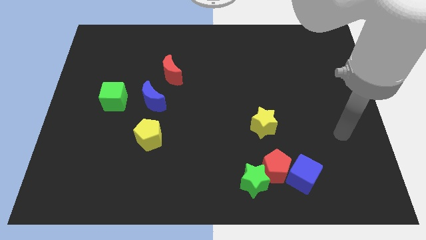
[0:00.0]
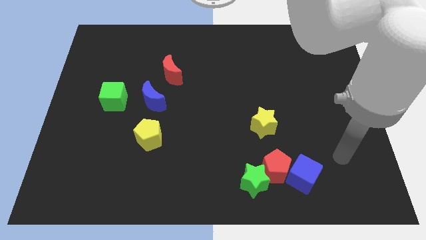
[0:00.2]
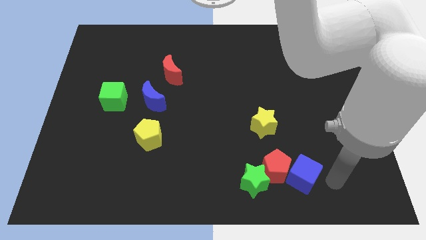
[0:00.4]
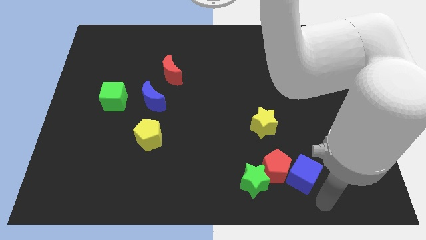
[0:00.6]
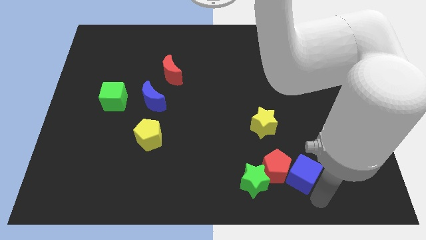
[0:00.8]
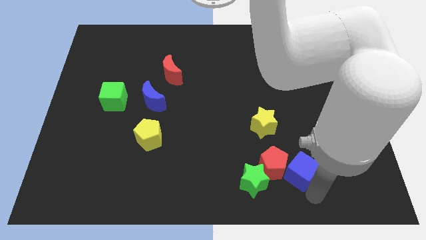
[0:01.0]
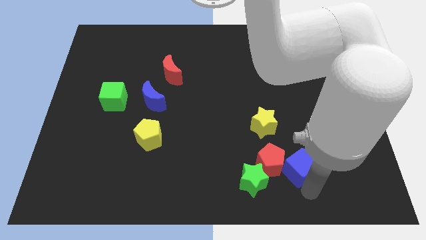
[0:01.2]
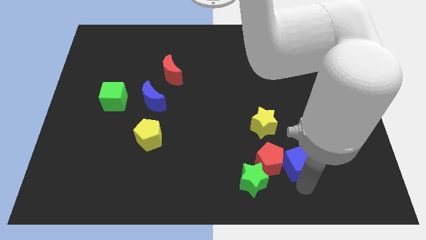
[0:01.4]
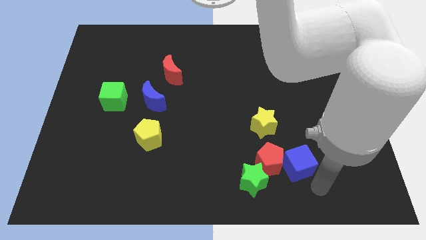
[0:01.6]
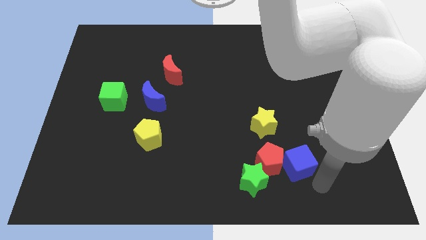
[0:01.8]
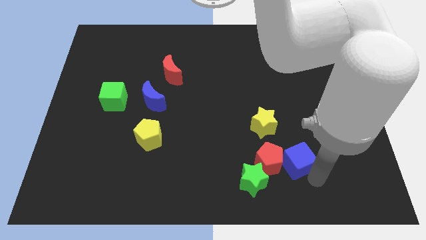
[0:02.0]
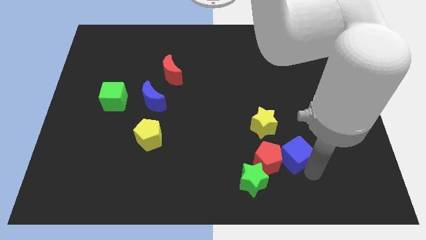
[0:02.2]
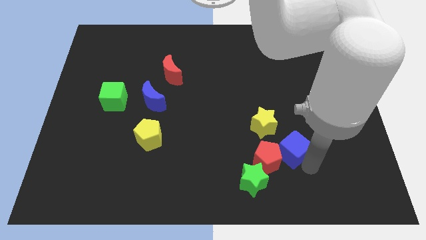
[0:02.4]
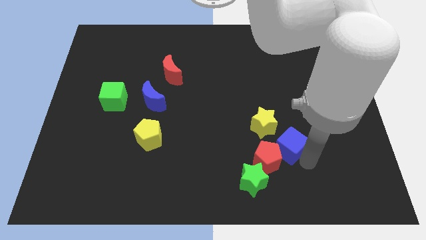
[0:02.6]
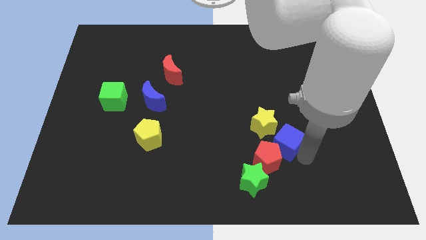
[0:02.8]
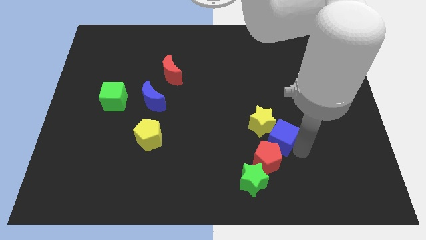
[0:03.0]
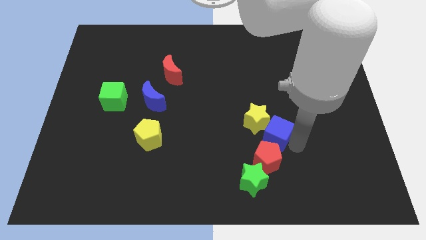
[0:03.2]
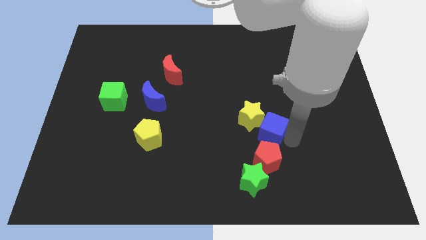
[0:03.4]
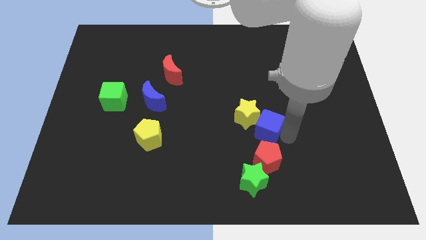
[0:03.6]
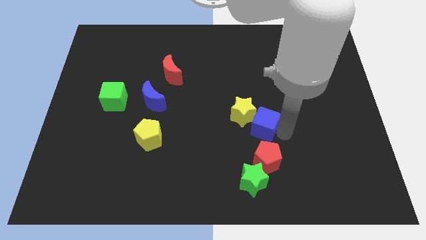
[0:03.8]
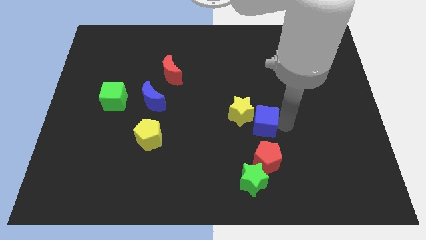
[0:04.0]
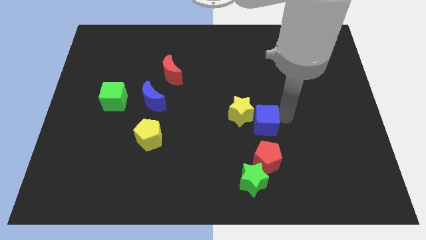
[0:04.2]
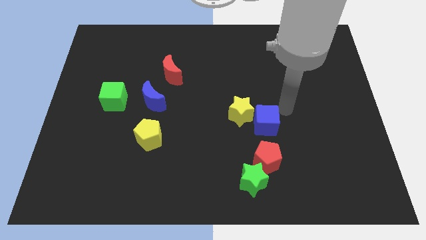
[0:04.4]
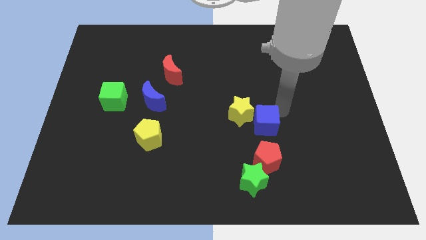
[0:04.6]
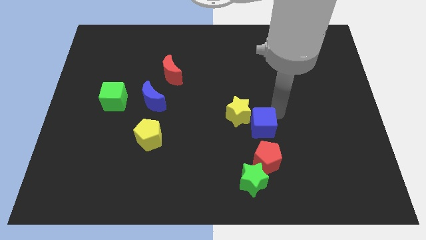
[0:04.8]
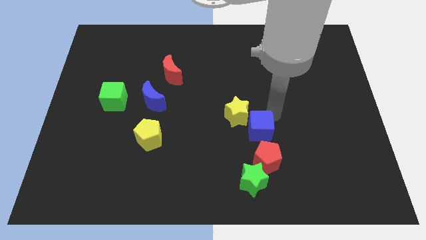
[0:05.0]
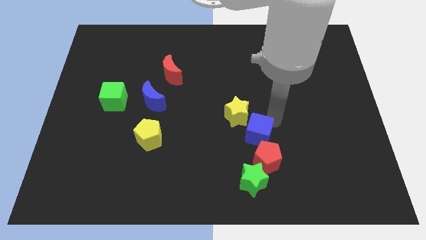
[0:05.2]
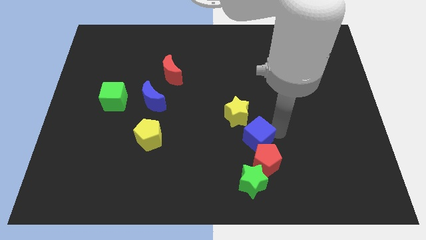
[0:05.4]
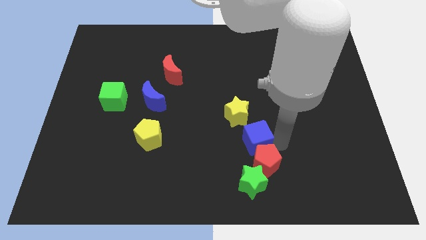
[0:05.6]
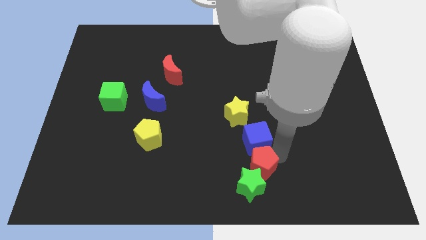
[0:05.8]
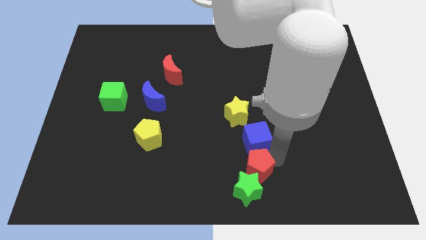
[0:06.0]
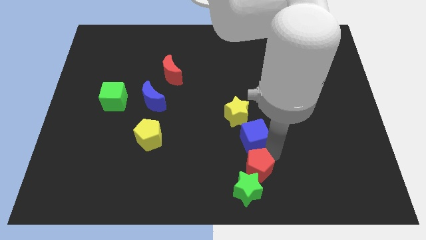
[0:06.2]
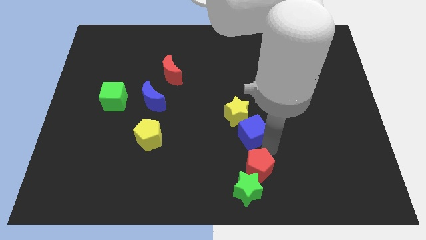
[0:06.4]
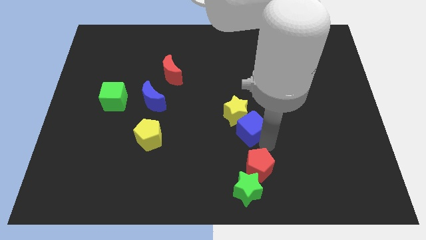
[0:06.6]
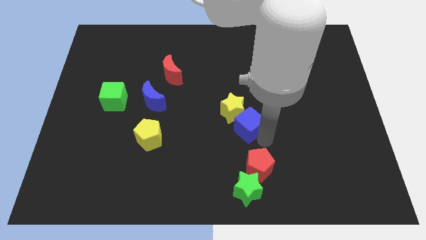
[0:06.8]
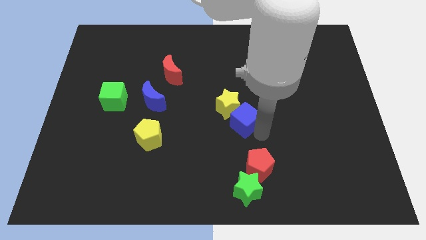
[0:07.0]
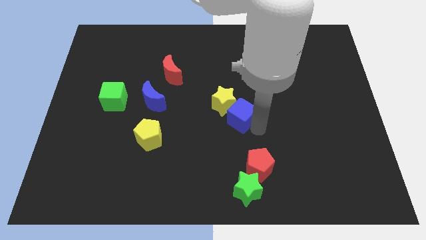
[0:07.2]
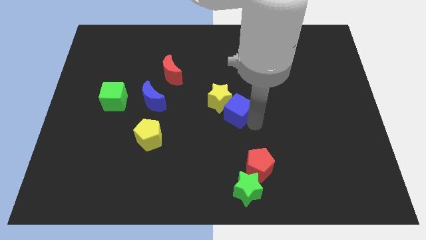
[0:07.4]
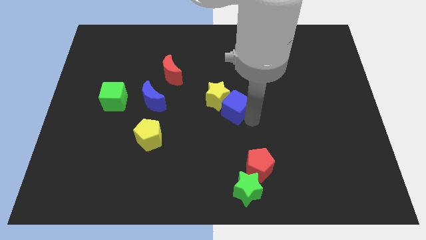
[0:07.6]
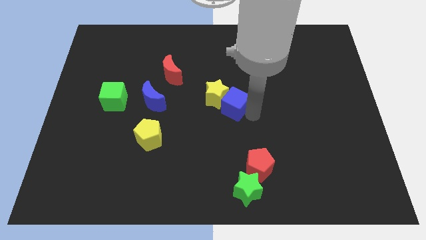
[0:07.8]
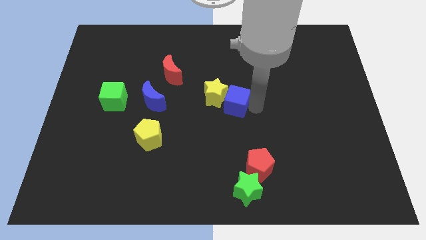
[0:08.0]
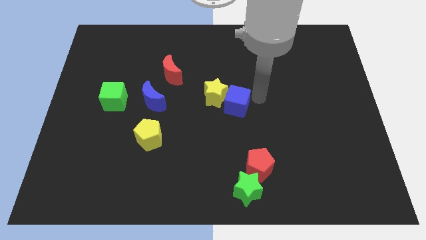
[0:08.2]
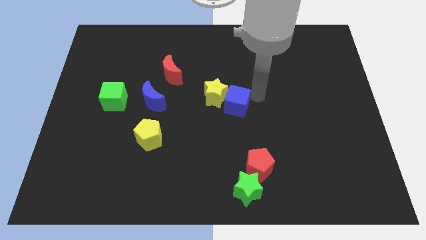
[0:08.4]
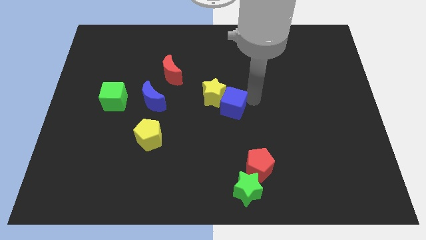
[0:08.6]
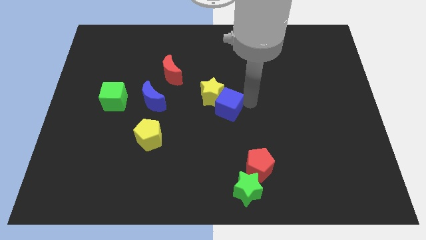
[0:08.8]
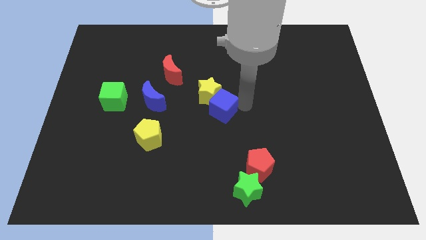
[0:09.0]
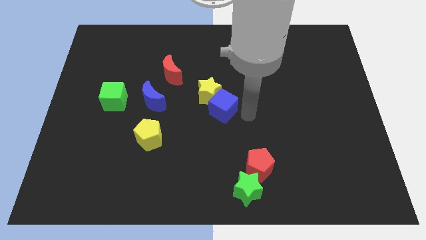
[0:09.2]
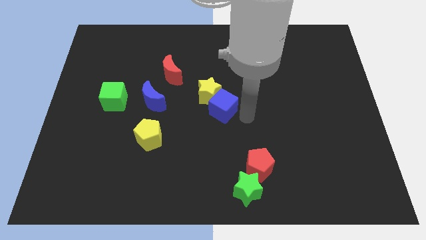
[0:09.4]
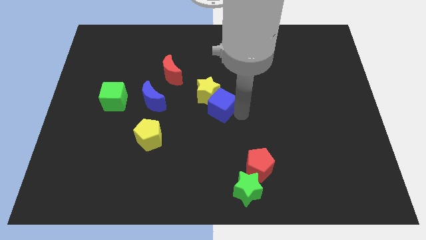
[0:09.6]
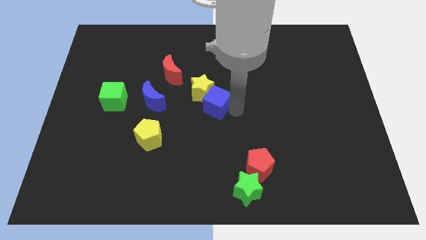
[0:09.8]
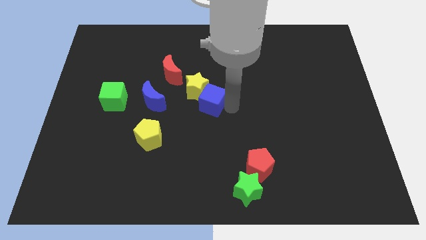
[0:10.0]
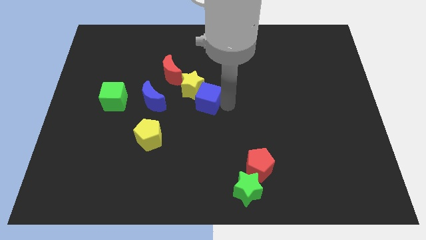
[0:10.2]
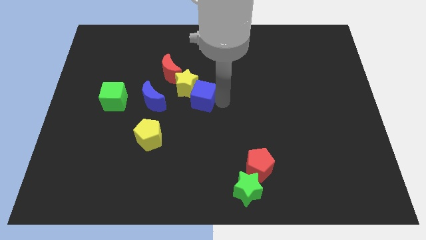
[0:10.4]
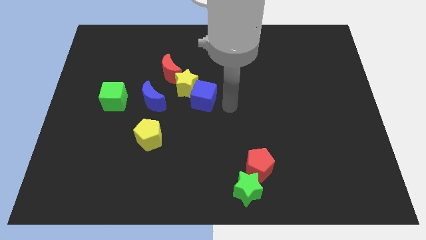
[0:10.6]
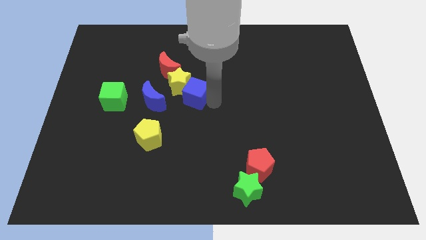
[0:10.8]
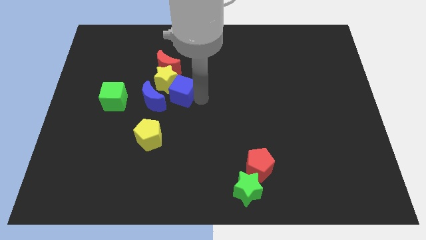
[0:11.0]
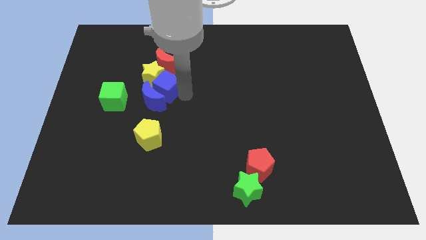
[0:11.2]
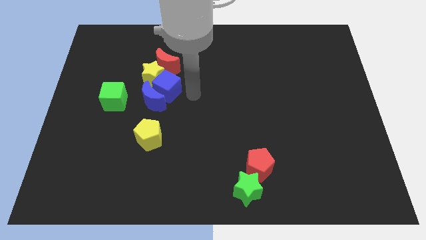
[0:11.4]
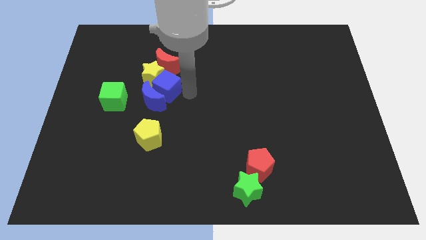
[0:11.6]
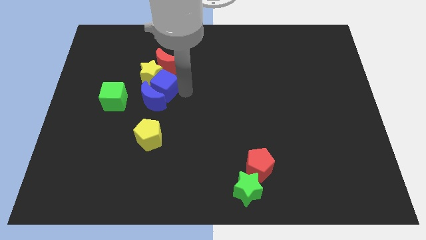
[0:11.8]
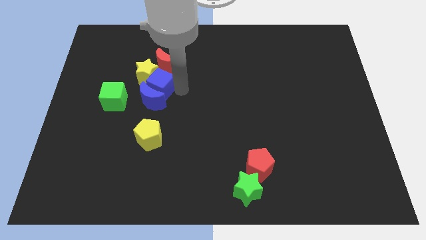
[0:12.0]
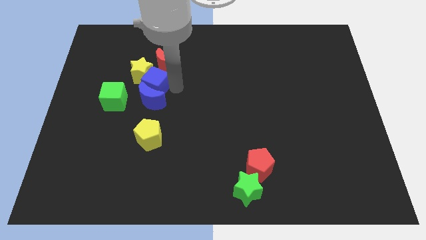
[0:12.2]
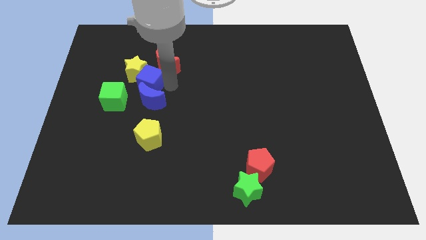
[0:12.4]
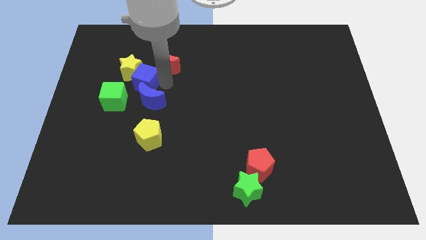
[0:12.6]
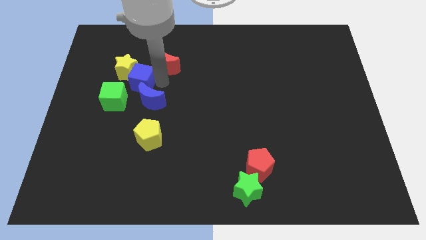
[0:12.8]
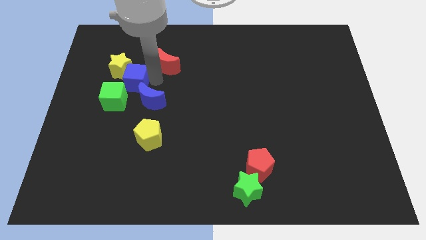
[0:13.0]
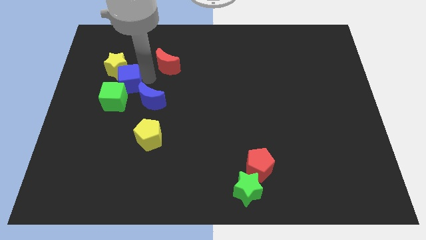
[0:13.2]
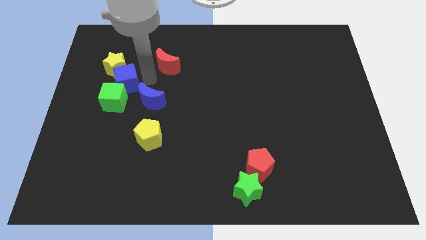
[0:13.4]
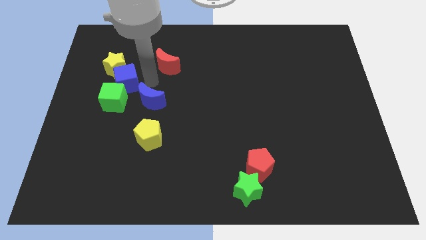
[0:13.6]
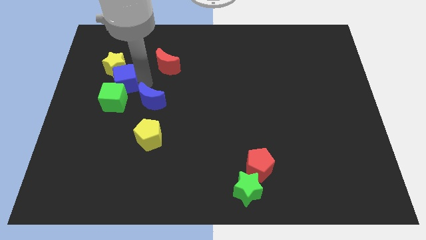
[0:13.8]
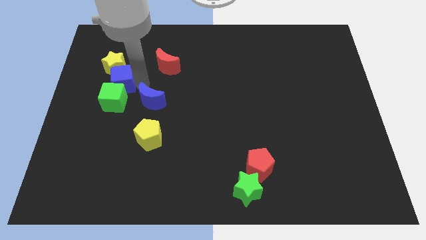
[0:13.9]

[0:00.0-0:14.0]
push the blue cube to the top left of the green cube

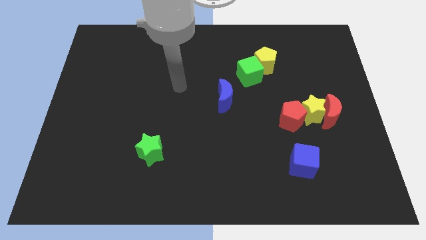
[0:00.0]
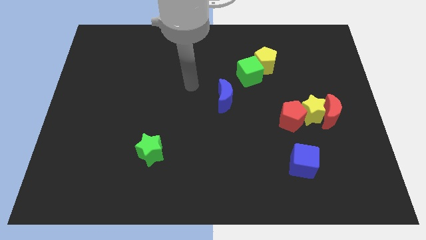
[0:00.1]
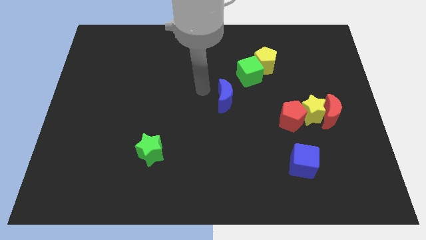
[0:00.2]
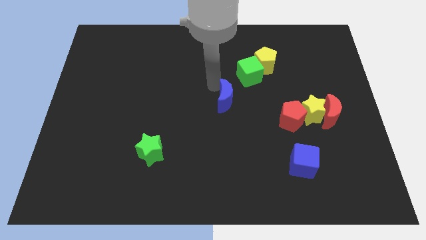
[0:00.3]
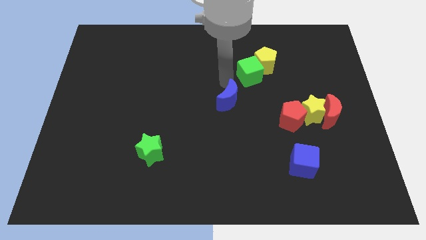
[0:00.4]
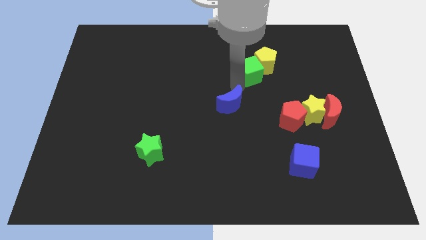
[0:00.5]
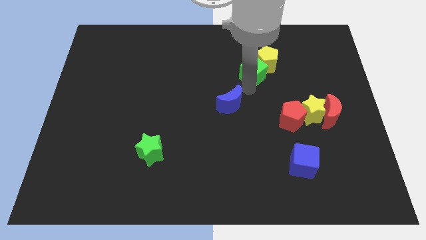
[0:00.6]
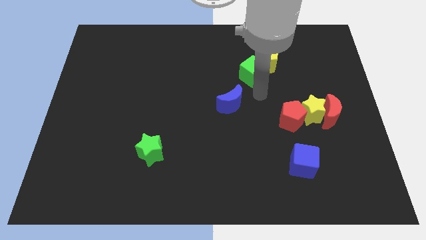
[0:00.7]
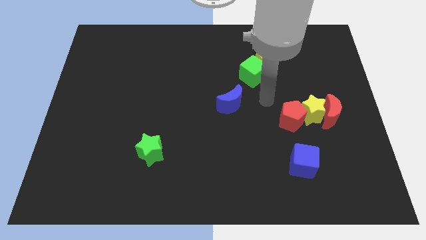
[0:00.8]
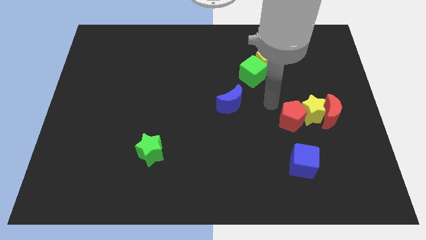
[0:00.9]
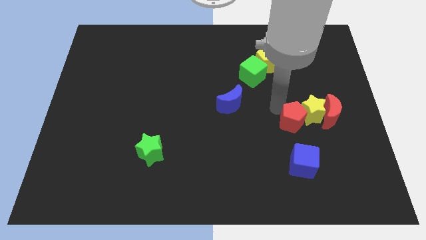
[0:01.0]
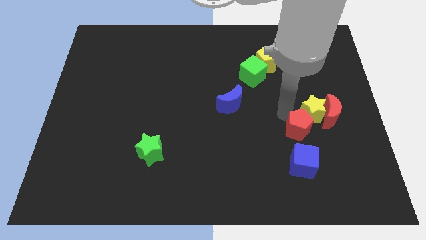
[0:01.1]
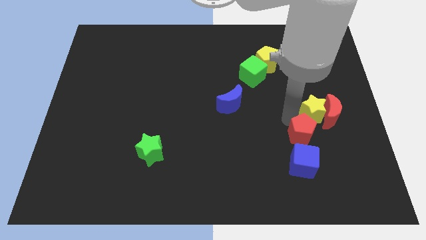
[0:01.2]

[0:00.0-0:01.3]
push the red pentagon to the top right of the blue cube
